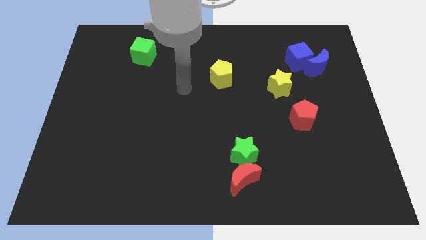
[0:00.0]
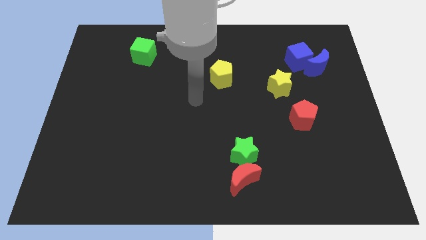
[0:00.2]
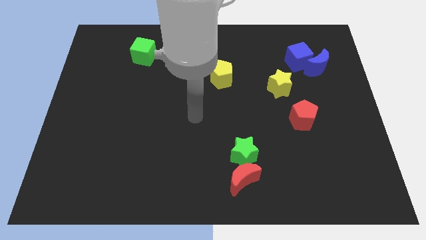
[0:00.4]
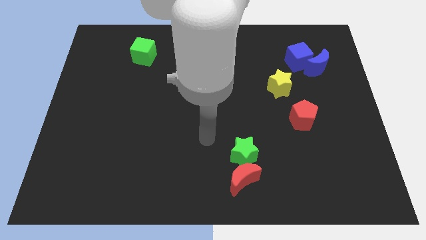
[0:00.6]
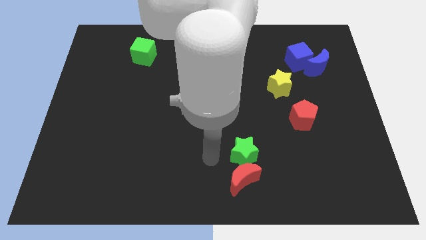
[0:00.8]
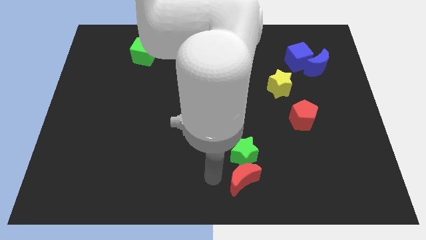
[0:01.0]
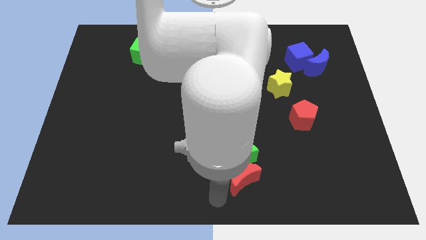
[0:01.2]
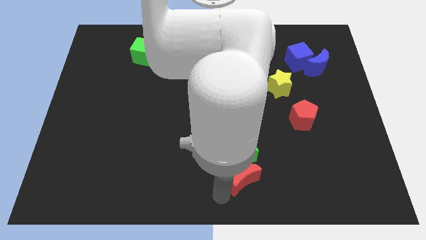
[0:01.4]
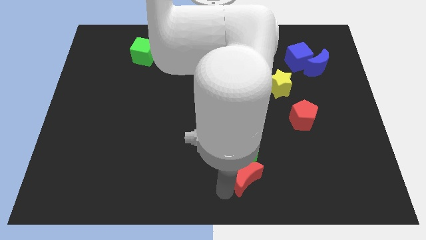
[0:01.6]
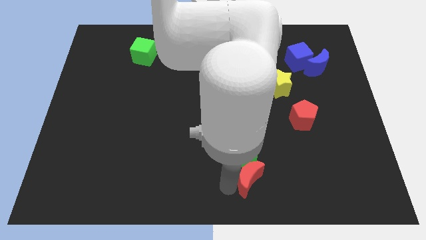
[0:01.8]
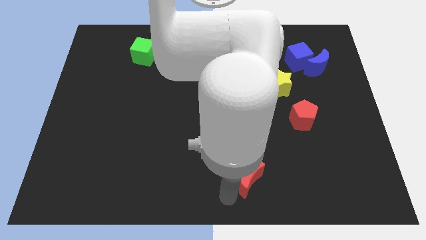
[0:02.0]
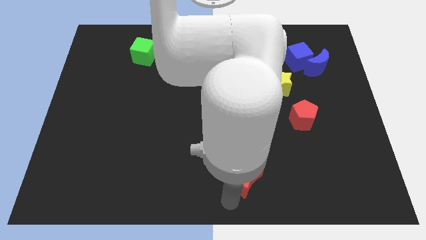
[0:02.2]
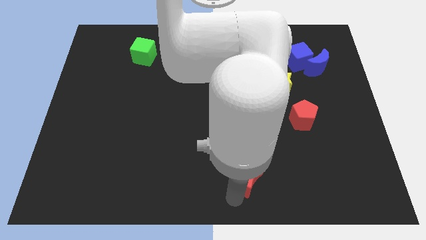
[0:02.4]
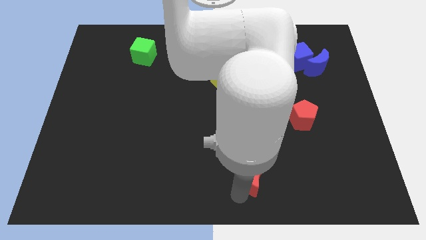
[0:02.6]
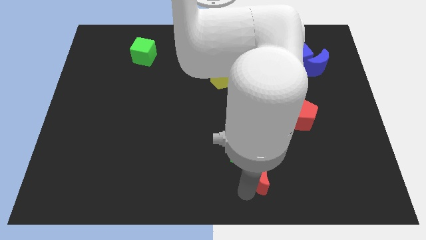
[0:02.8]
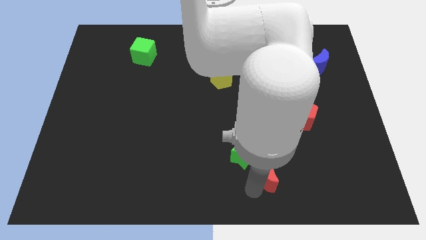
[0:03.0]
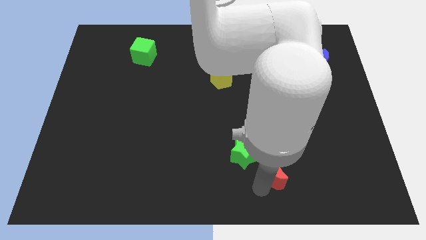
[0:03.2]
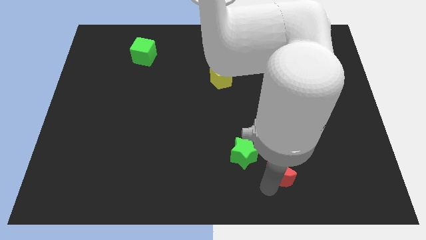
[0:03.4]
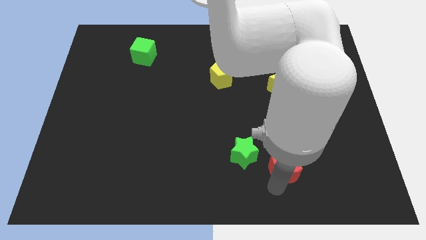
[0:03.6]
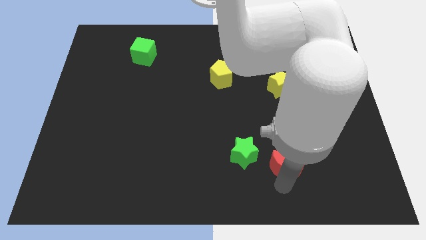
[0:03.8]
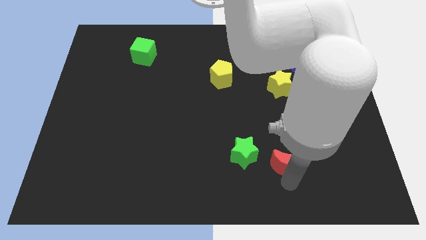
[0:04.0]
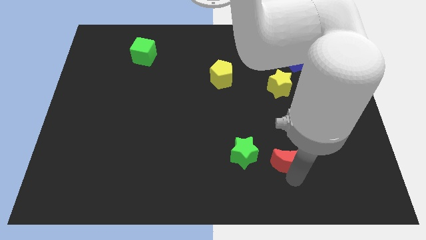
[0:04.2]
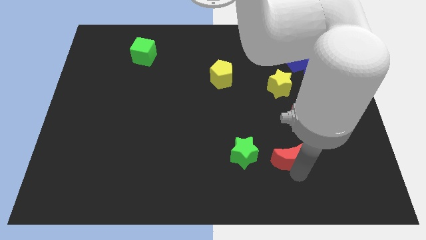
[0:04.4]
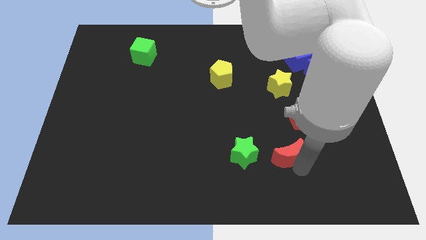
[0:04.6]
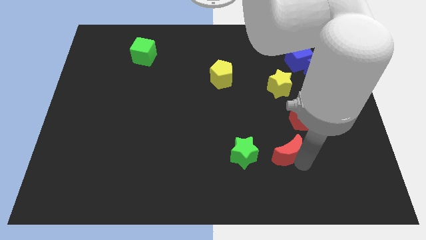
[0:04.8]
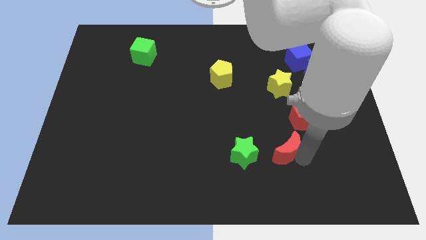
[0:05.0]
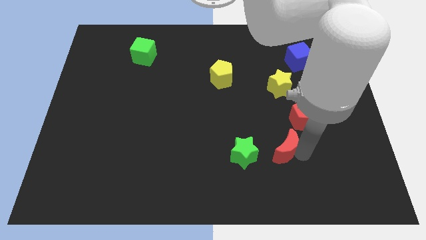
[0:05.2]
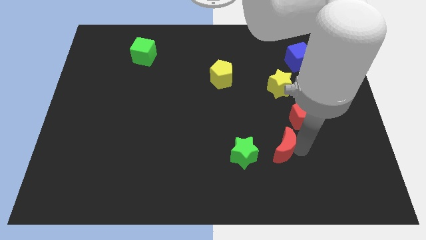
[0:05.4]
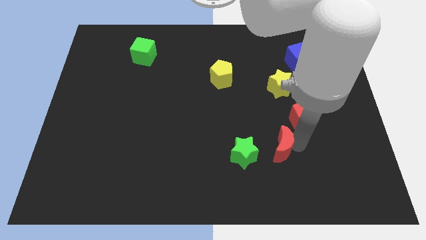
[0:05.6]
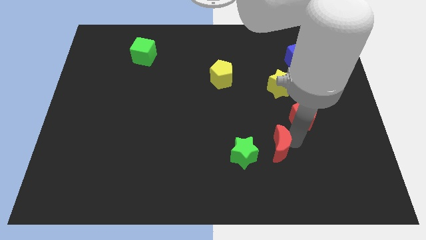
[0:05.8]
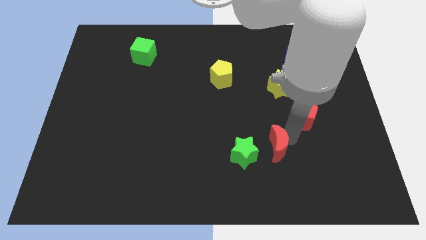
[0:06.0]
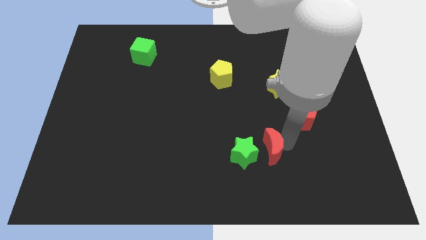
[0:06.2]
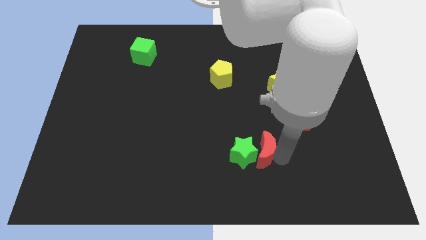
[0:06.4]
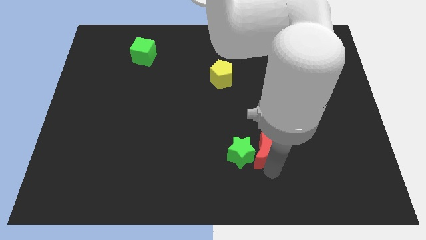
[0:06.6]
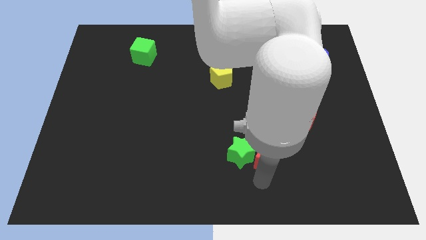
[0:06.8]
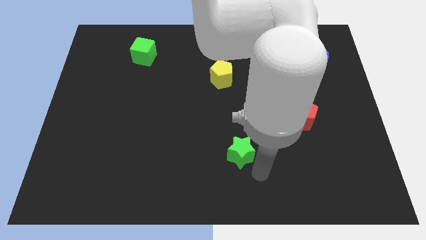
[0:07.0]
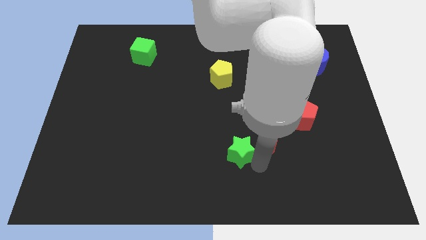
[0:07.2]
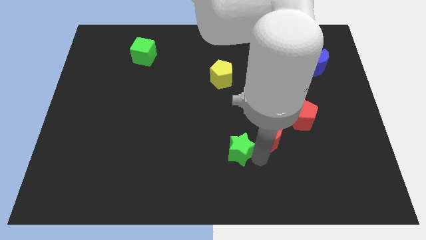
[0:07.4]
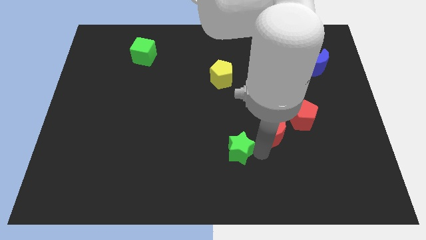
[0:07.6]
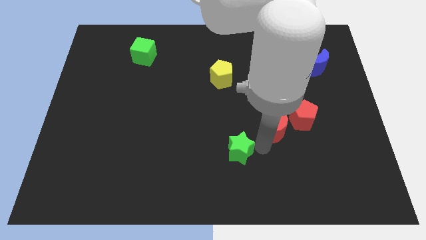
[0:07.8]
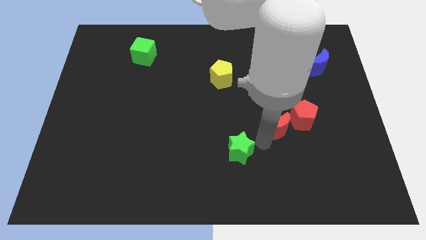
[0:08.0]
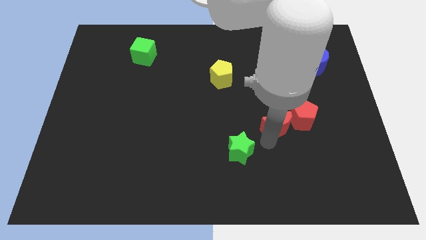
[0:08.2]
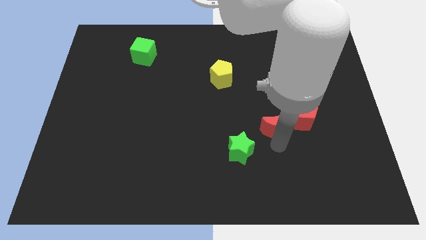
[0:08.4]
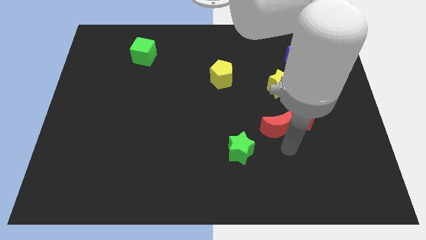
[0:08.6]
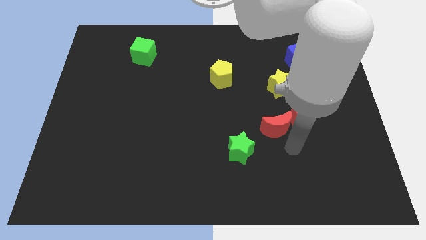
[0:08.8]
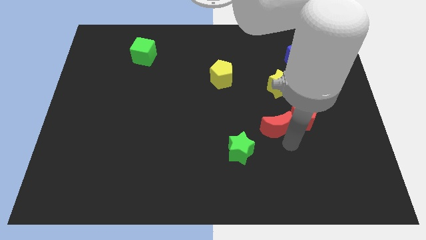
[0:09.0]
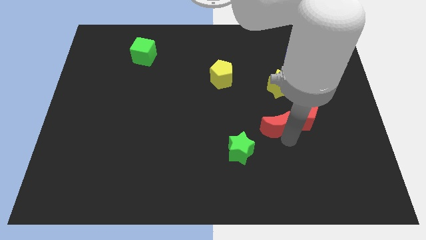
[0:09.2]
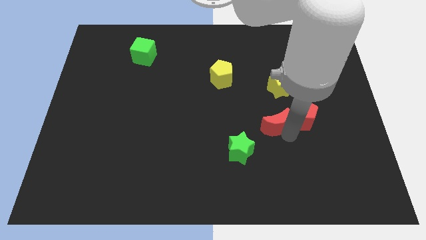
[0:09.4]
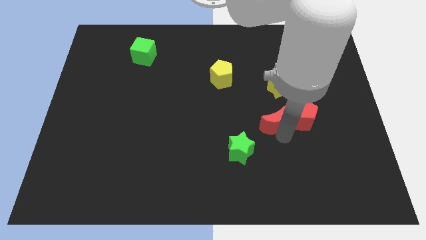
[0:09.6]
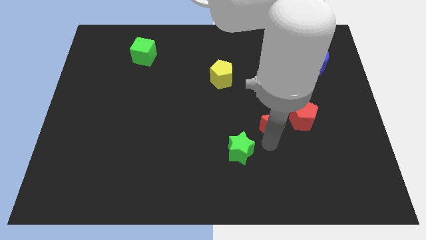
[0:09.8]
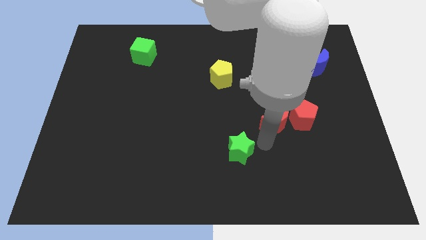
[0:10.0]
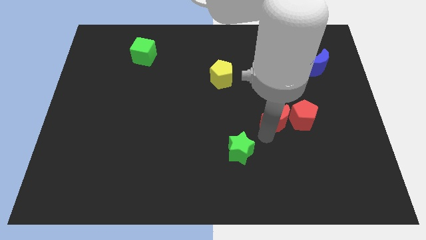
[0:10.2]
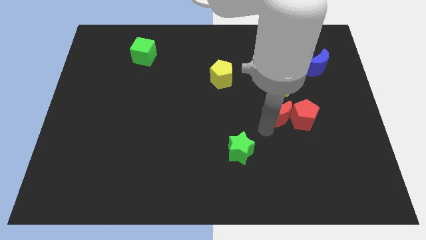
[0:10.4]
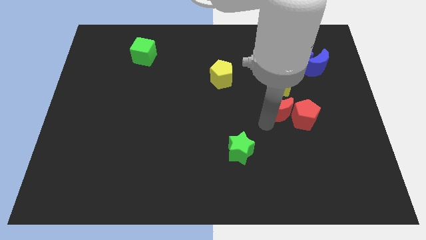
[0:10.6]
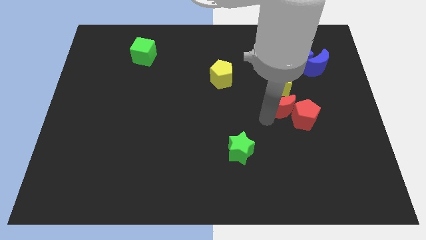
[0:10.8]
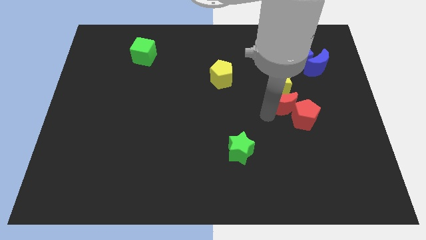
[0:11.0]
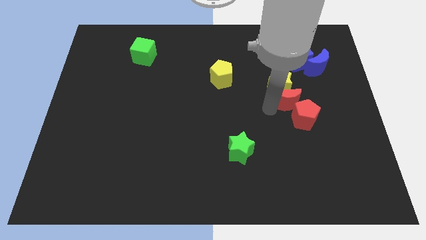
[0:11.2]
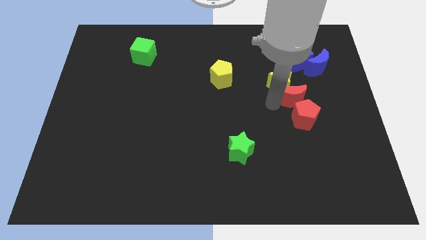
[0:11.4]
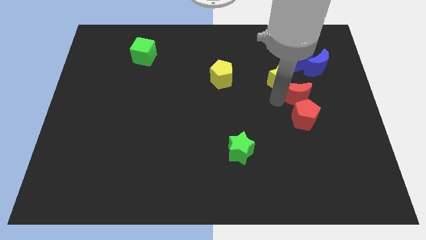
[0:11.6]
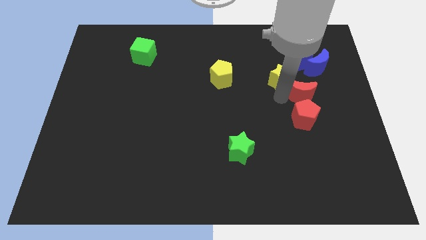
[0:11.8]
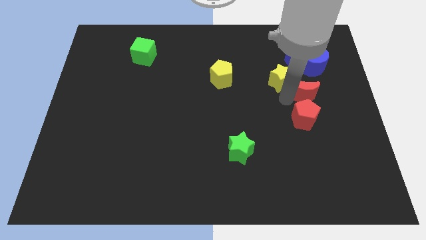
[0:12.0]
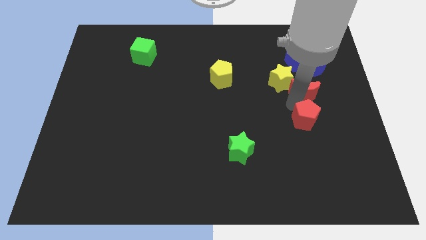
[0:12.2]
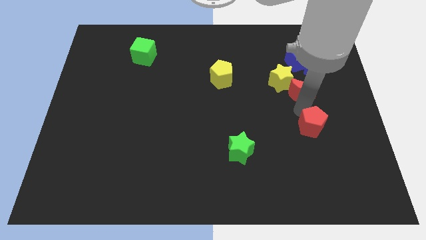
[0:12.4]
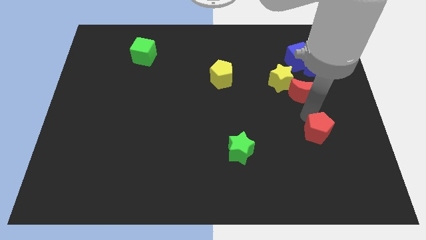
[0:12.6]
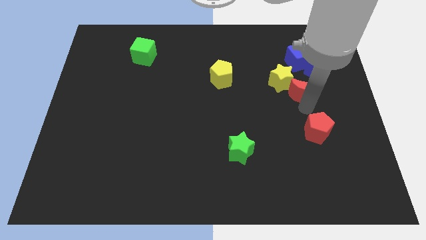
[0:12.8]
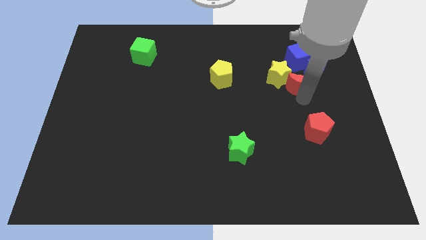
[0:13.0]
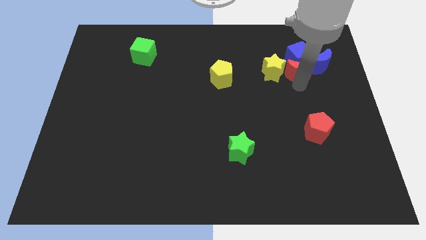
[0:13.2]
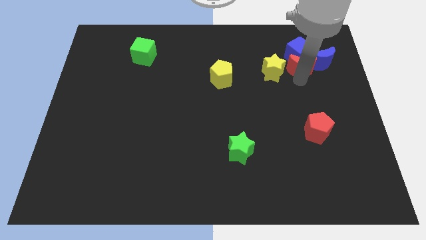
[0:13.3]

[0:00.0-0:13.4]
move the red moon diagonally up and to the right of the yellow star

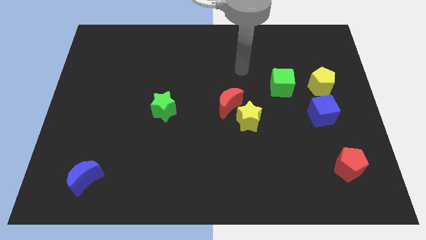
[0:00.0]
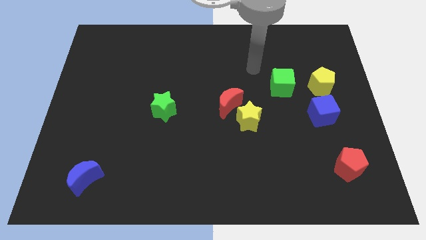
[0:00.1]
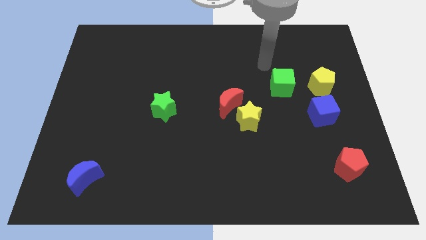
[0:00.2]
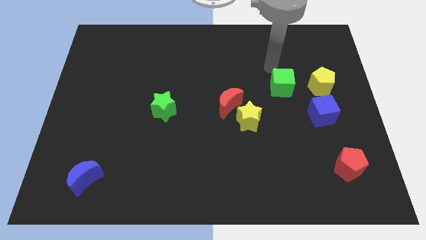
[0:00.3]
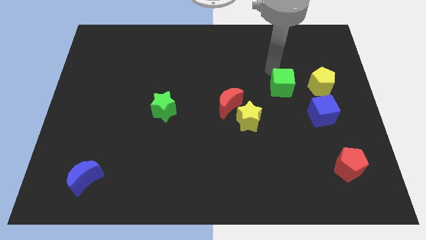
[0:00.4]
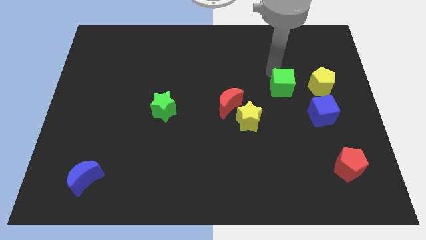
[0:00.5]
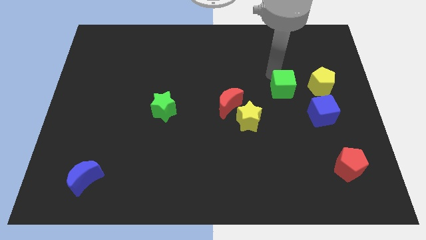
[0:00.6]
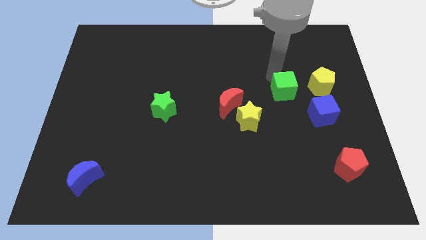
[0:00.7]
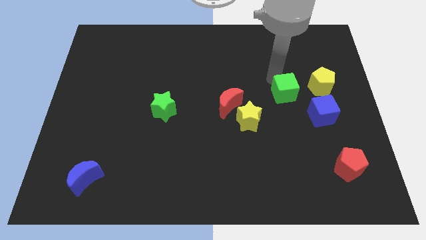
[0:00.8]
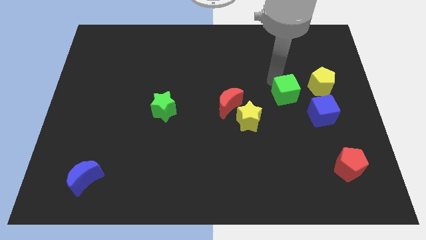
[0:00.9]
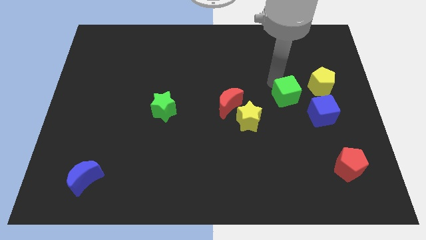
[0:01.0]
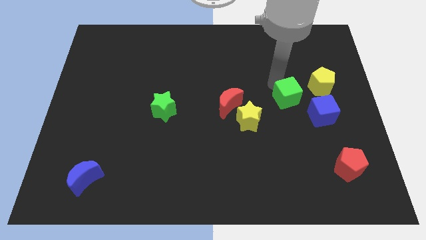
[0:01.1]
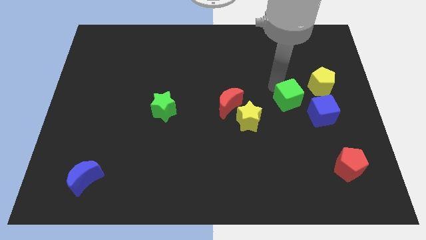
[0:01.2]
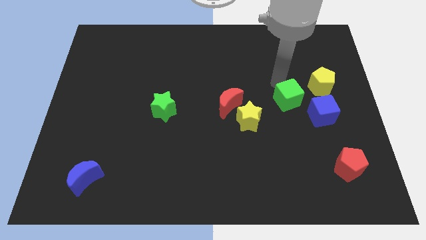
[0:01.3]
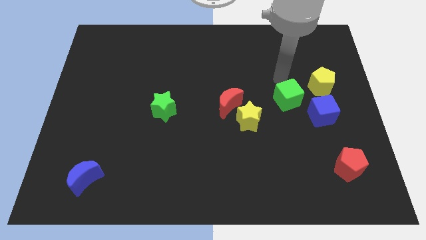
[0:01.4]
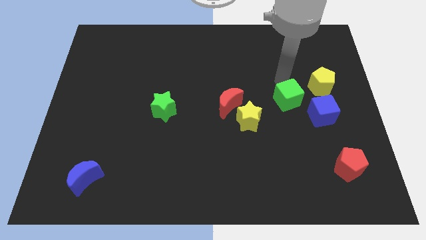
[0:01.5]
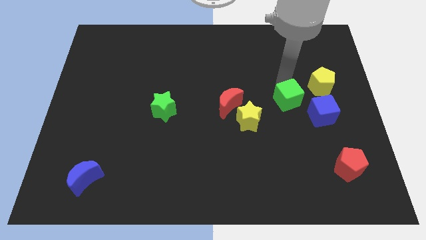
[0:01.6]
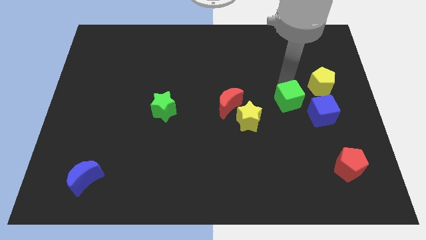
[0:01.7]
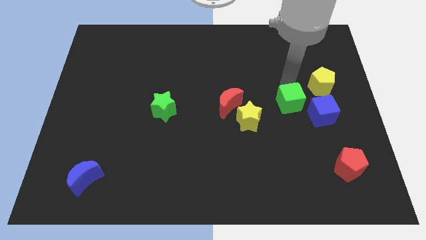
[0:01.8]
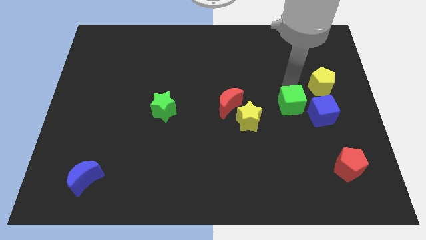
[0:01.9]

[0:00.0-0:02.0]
slide the green cube just right of the yellow star
